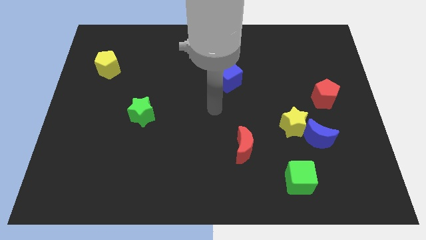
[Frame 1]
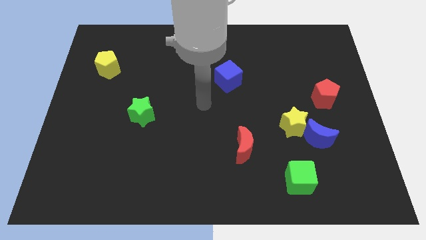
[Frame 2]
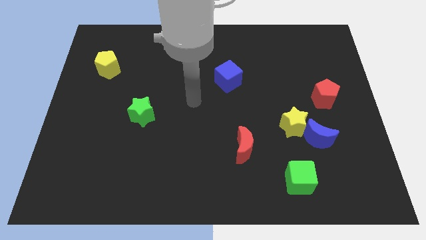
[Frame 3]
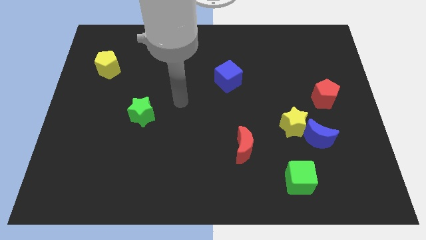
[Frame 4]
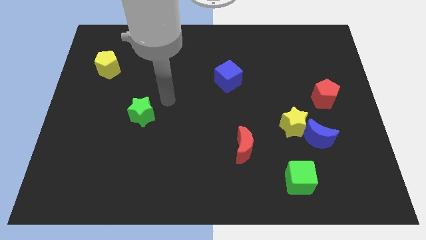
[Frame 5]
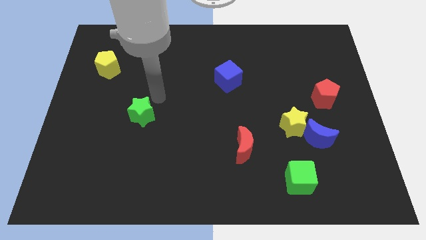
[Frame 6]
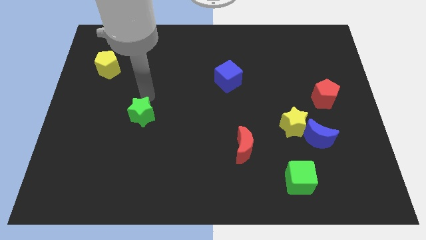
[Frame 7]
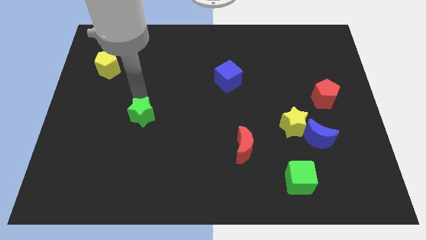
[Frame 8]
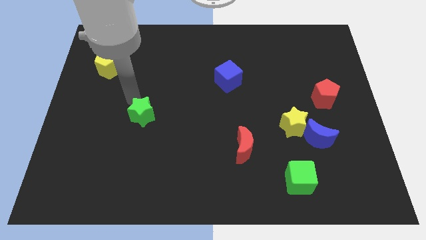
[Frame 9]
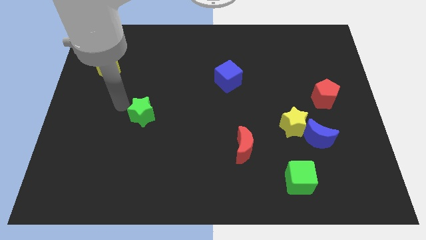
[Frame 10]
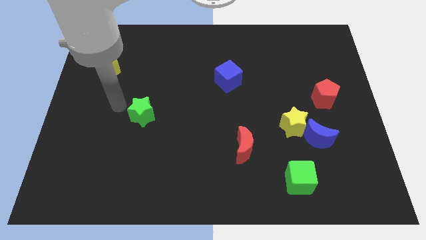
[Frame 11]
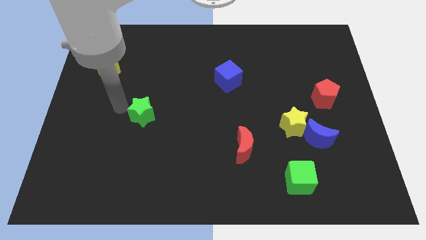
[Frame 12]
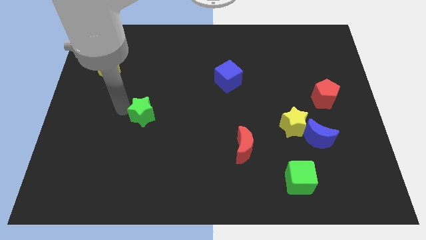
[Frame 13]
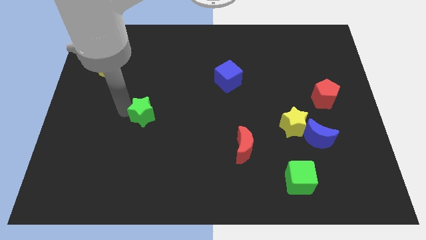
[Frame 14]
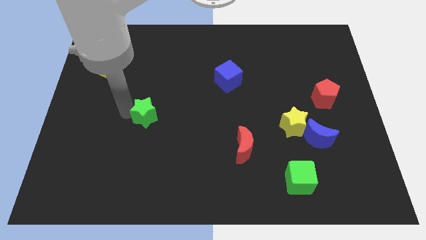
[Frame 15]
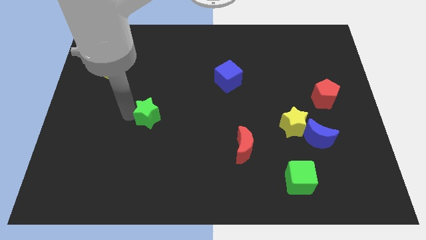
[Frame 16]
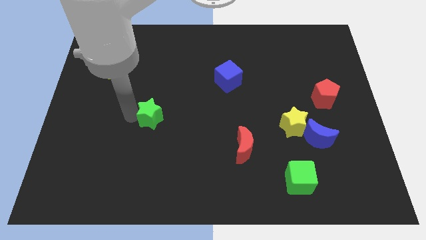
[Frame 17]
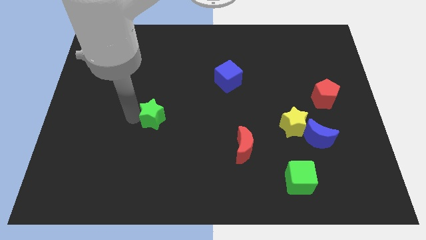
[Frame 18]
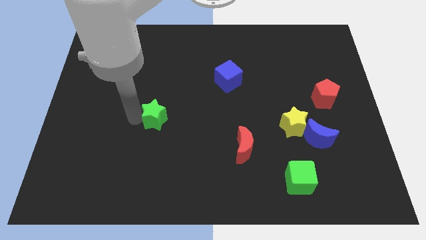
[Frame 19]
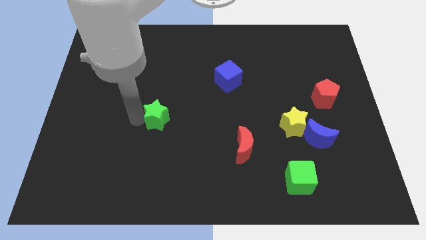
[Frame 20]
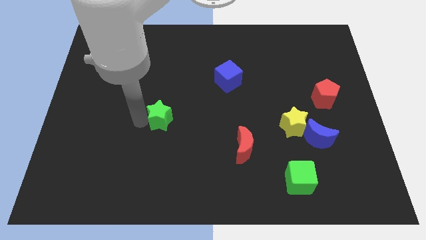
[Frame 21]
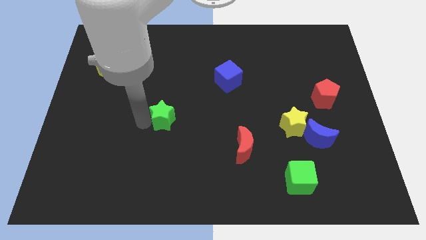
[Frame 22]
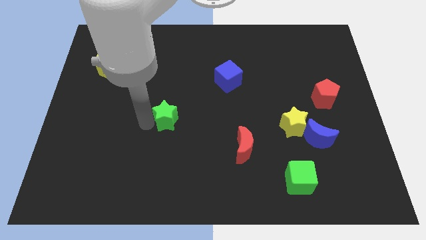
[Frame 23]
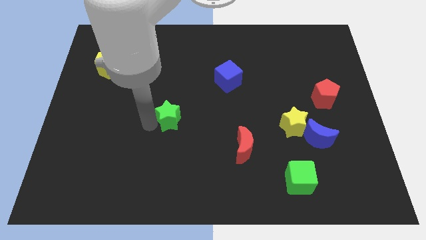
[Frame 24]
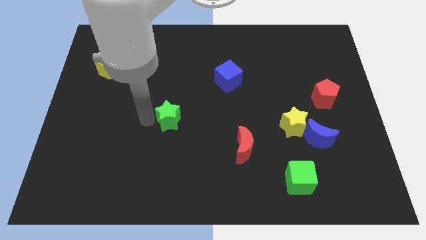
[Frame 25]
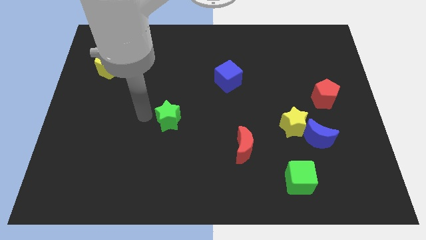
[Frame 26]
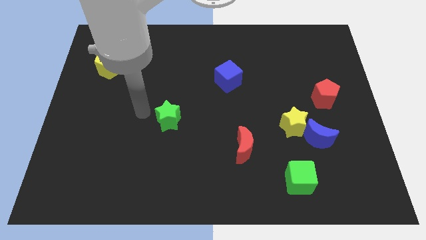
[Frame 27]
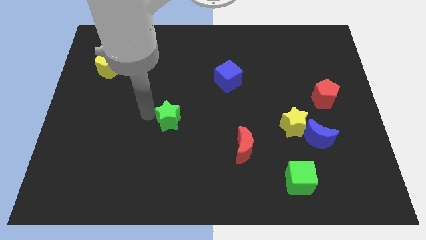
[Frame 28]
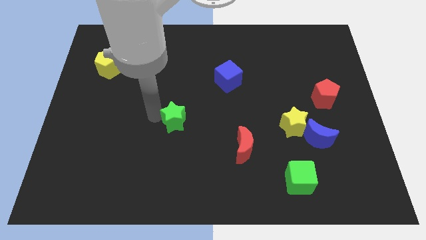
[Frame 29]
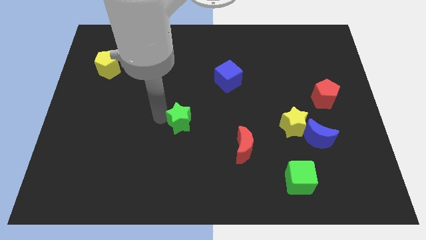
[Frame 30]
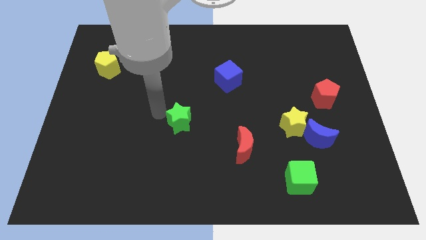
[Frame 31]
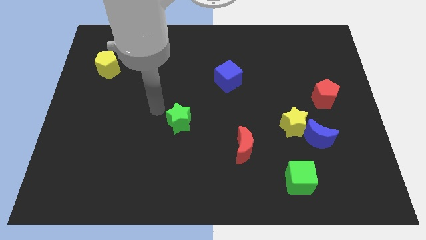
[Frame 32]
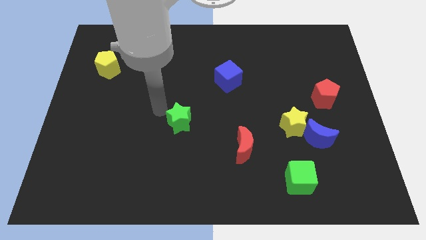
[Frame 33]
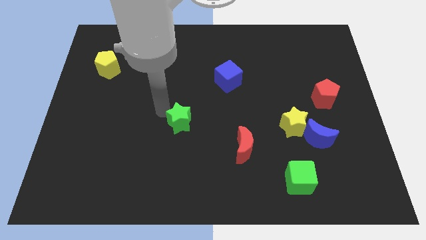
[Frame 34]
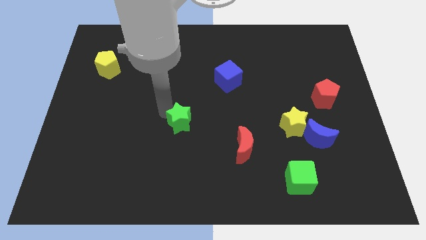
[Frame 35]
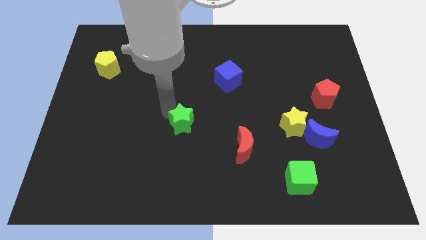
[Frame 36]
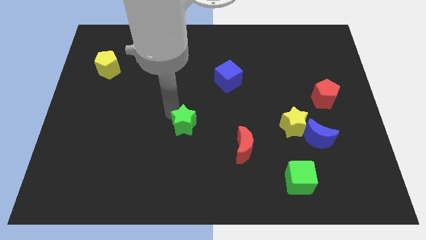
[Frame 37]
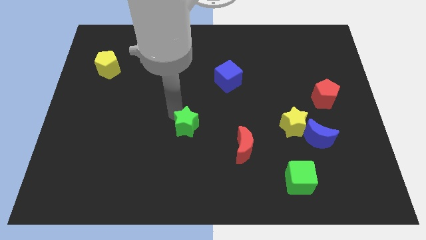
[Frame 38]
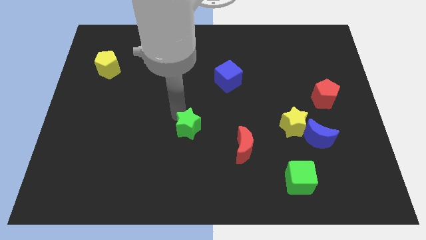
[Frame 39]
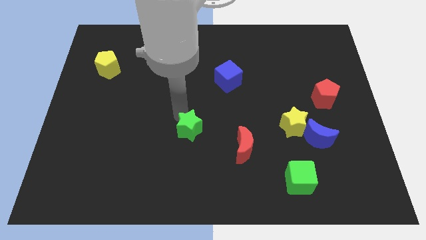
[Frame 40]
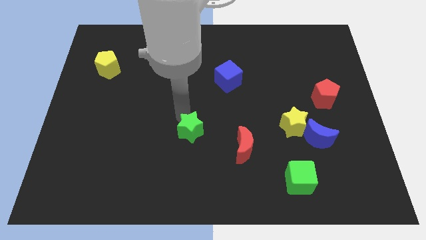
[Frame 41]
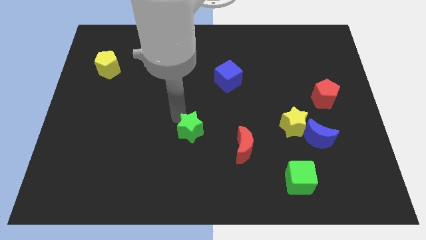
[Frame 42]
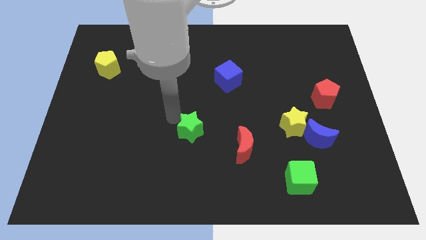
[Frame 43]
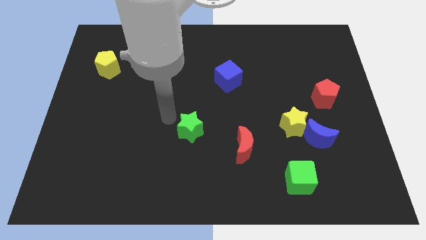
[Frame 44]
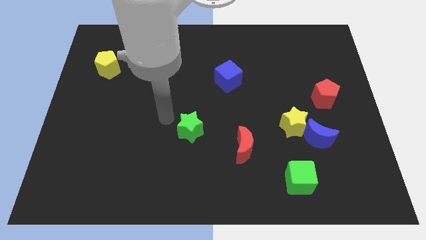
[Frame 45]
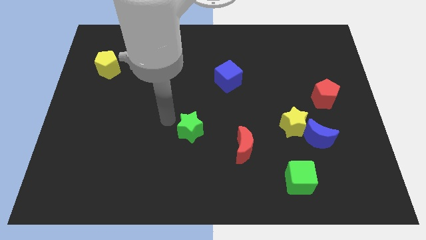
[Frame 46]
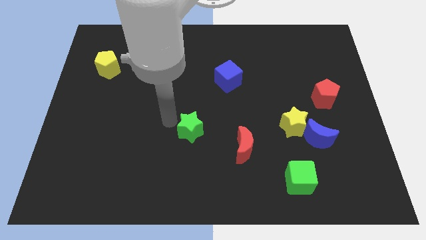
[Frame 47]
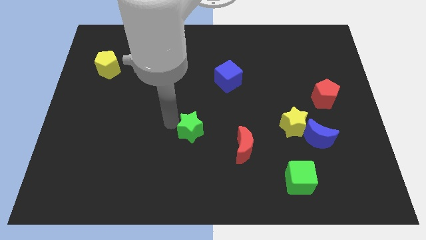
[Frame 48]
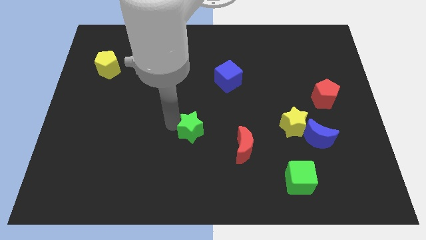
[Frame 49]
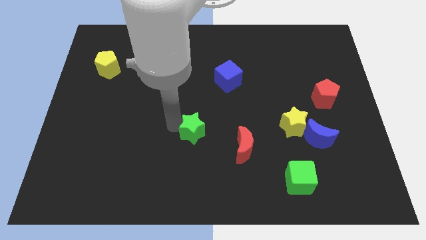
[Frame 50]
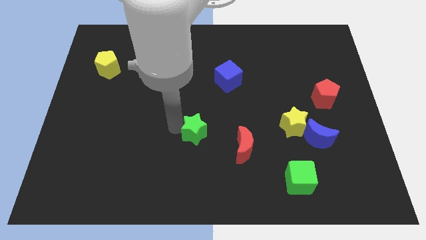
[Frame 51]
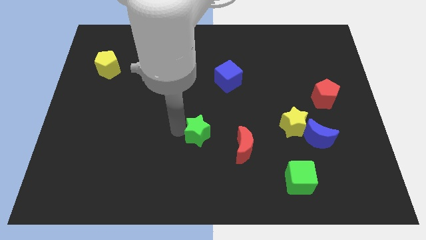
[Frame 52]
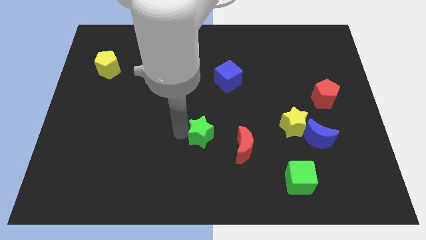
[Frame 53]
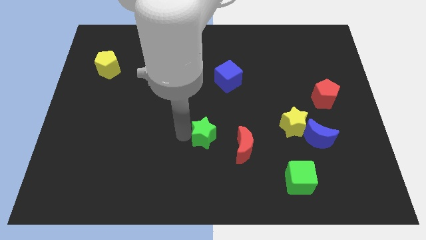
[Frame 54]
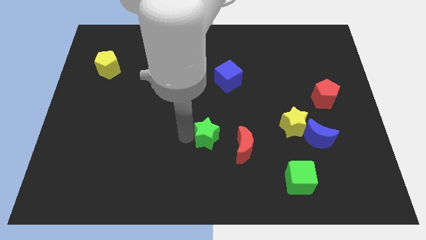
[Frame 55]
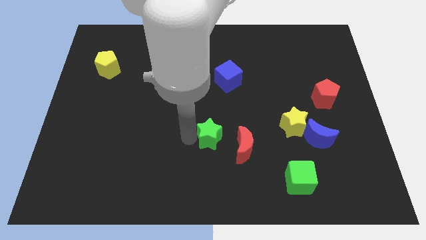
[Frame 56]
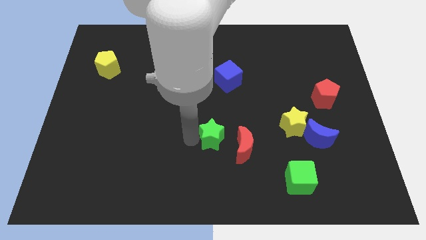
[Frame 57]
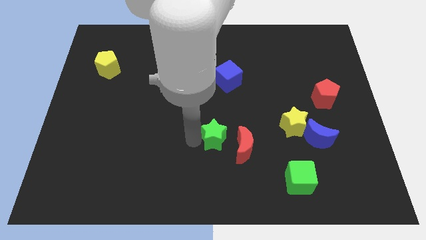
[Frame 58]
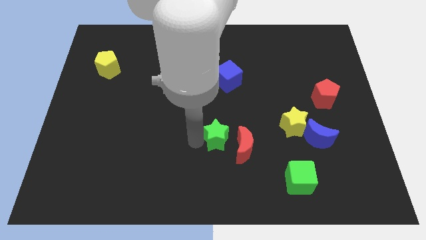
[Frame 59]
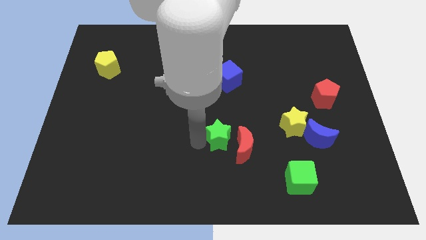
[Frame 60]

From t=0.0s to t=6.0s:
push the green star close to the red moon
